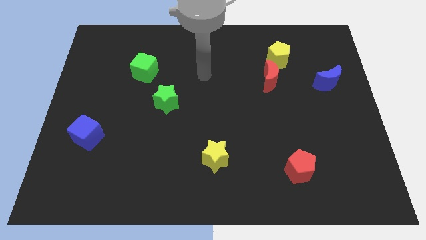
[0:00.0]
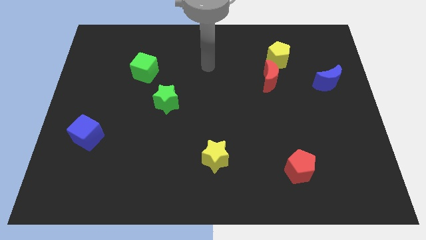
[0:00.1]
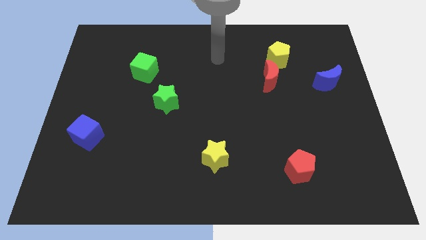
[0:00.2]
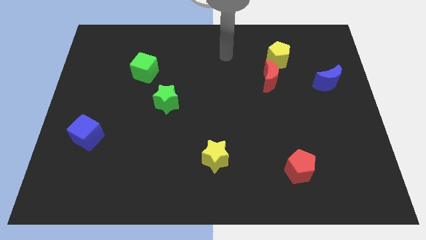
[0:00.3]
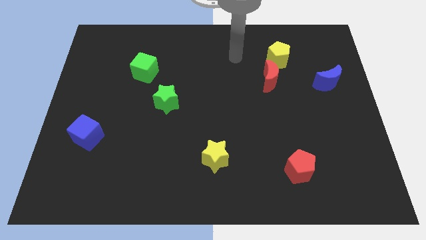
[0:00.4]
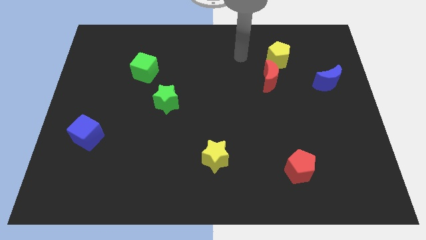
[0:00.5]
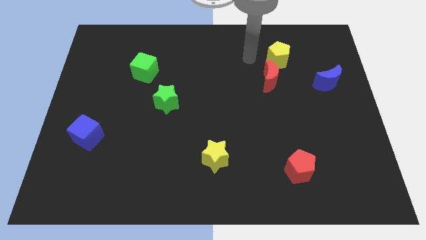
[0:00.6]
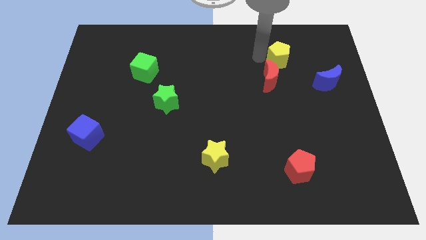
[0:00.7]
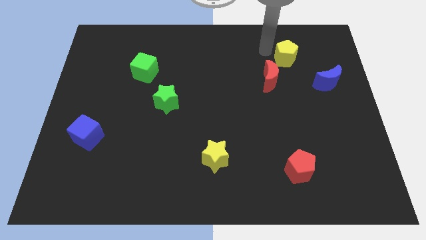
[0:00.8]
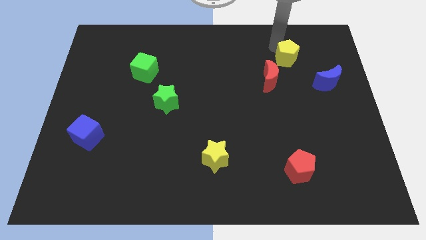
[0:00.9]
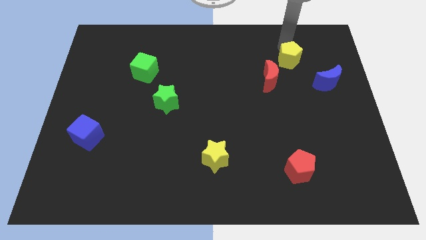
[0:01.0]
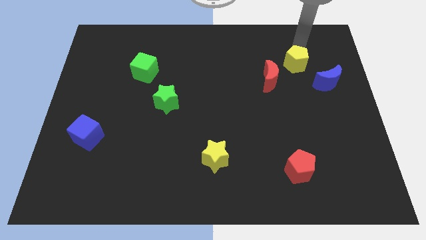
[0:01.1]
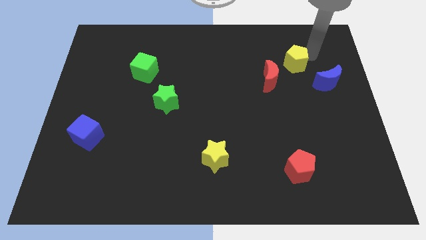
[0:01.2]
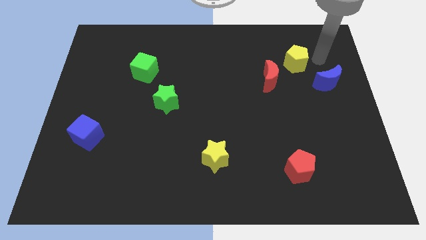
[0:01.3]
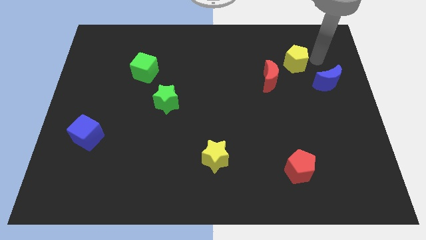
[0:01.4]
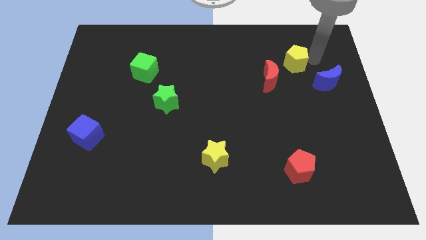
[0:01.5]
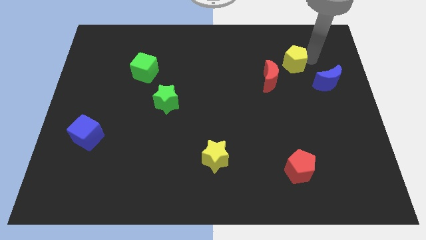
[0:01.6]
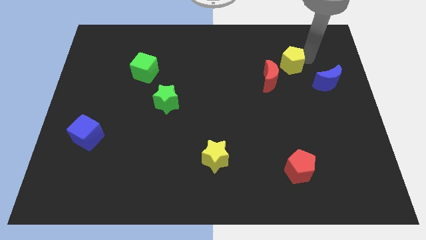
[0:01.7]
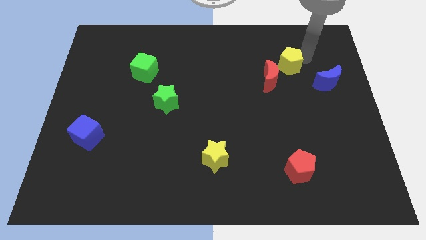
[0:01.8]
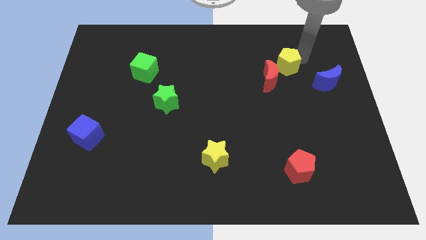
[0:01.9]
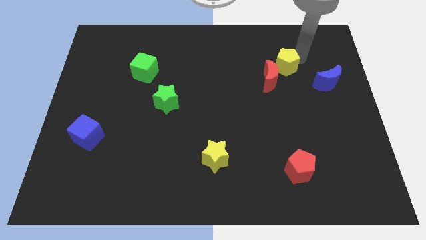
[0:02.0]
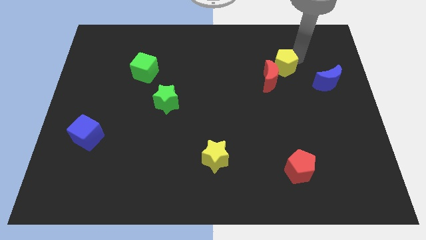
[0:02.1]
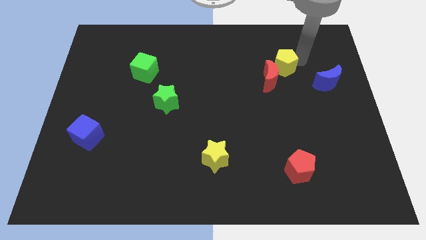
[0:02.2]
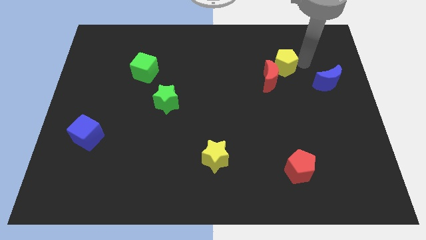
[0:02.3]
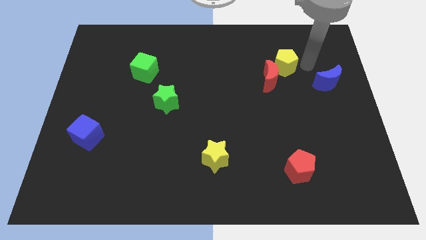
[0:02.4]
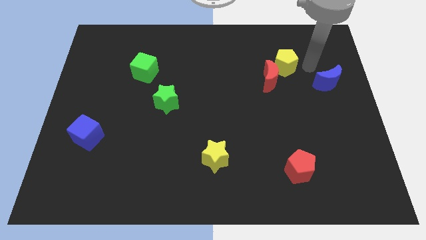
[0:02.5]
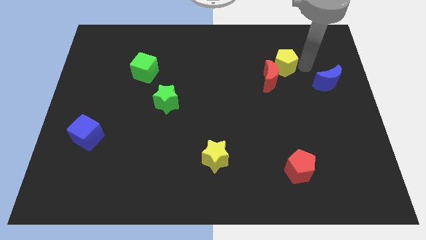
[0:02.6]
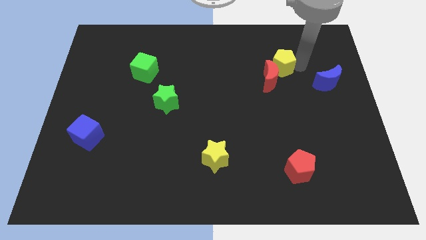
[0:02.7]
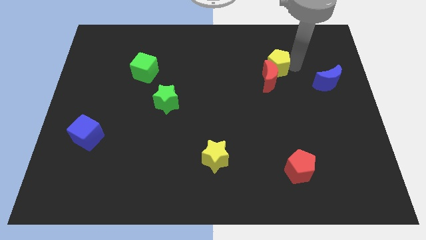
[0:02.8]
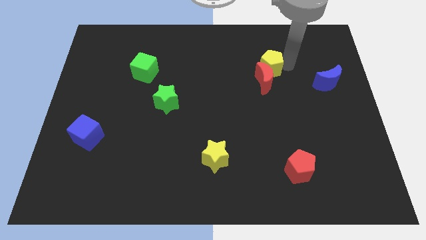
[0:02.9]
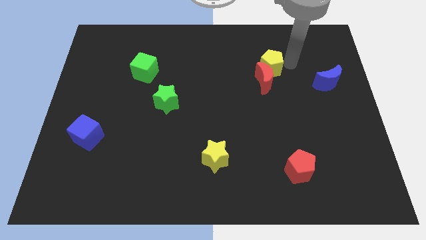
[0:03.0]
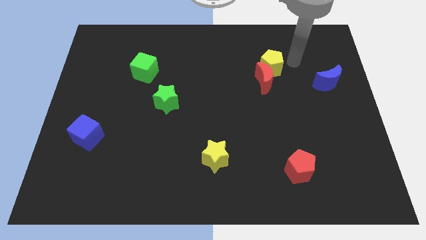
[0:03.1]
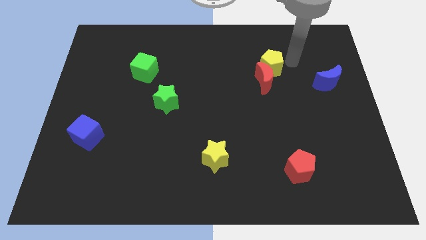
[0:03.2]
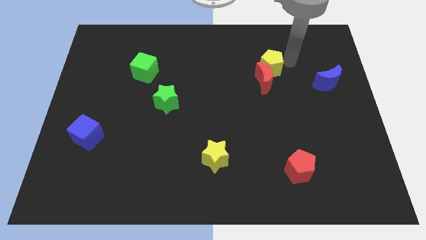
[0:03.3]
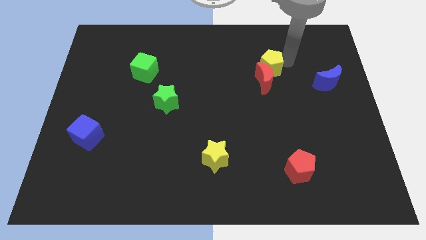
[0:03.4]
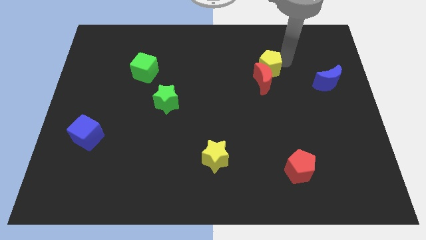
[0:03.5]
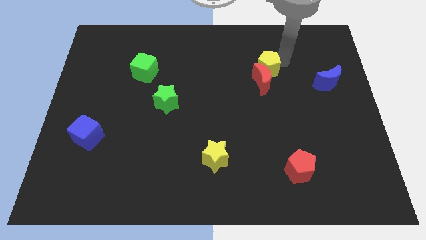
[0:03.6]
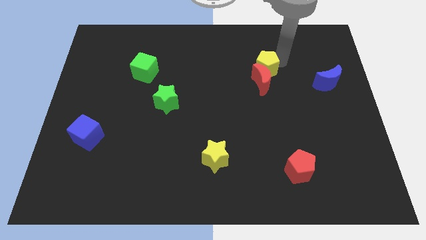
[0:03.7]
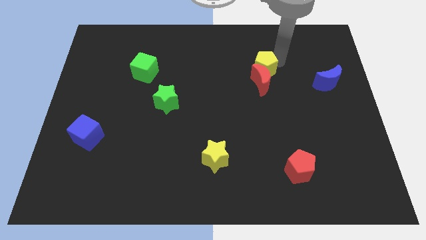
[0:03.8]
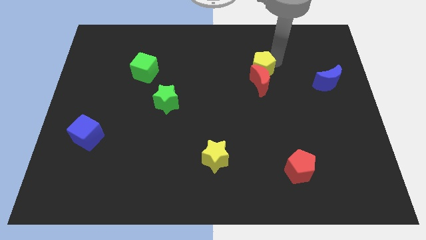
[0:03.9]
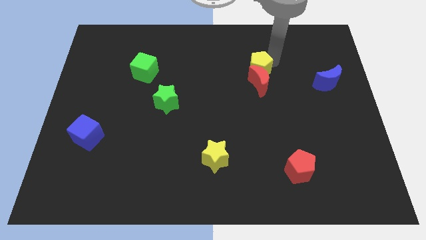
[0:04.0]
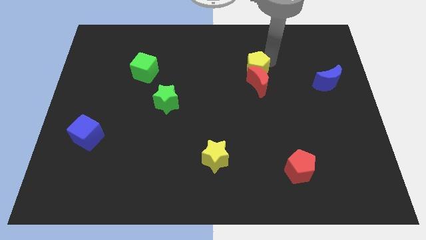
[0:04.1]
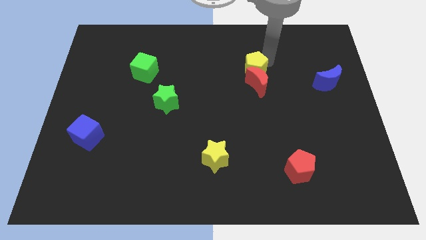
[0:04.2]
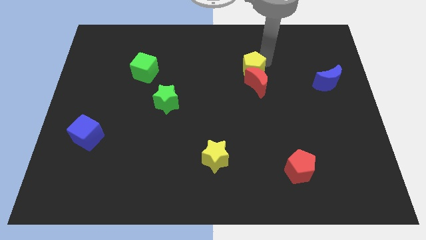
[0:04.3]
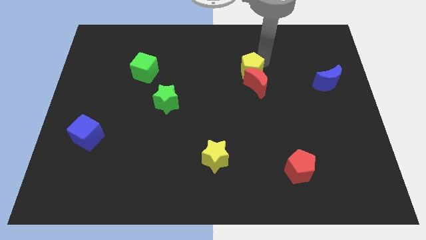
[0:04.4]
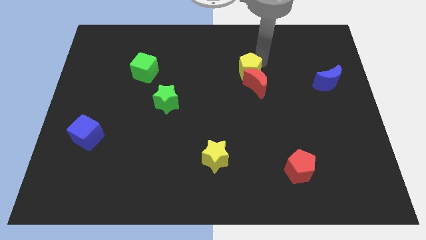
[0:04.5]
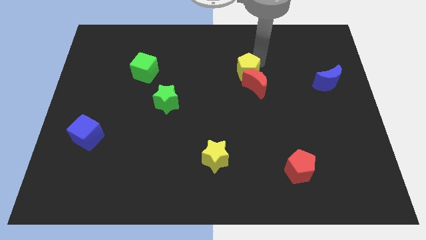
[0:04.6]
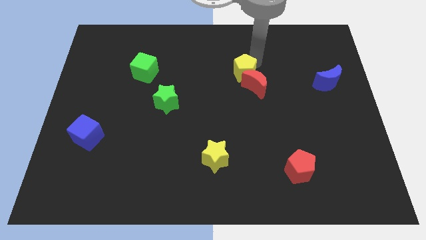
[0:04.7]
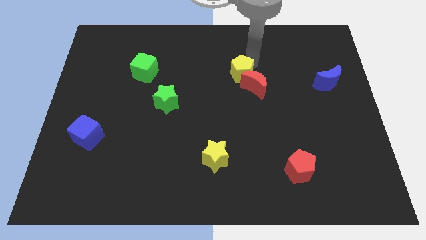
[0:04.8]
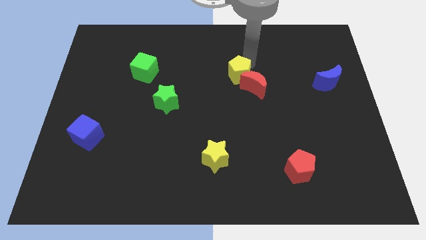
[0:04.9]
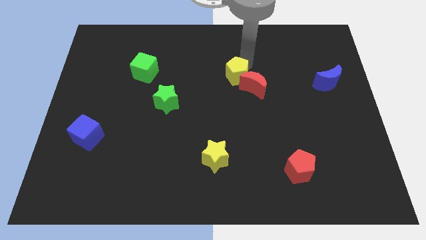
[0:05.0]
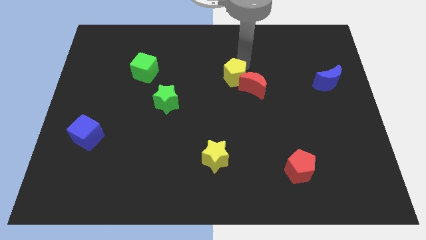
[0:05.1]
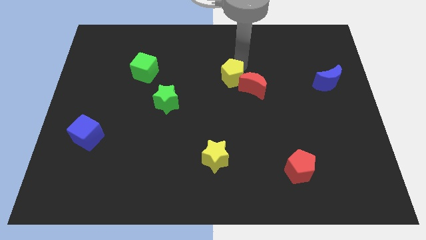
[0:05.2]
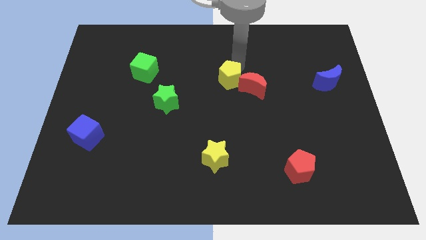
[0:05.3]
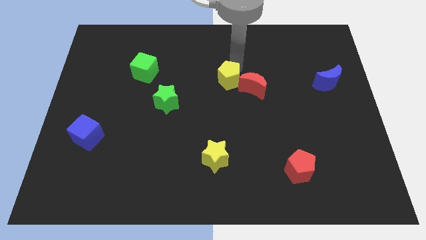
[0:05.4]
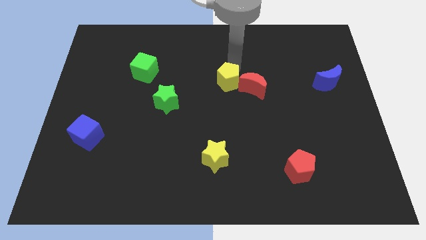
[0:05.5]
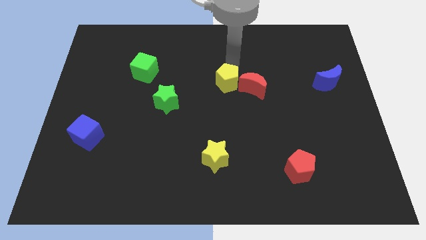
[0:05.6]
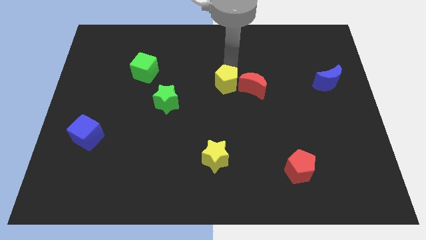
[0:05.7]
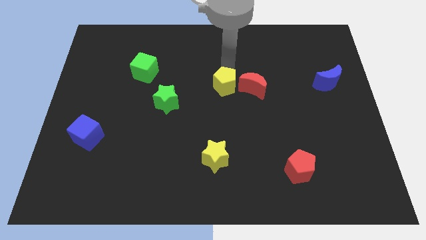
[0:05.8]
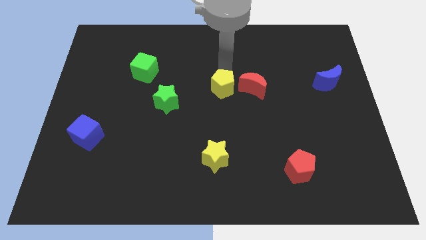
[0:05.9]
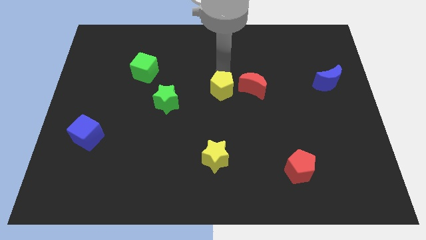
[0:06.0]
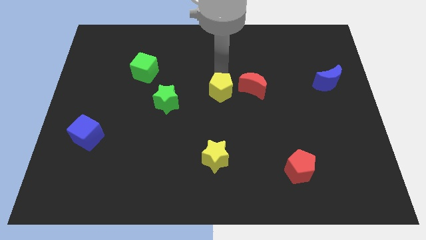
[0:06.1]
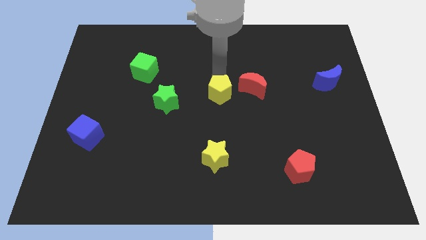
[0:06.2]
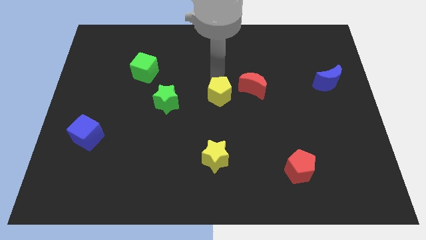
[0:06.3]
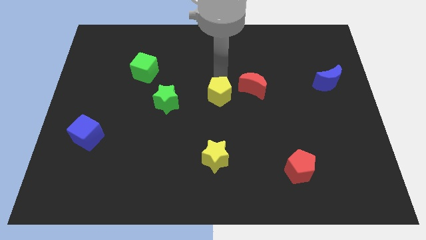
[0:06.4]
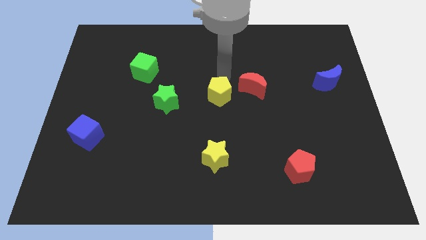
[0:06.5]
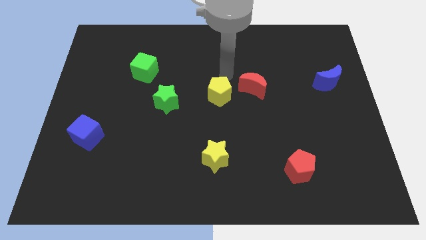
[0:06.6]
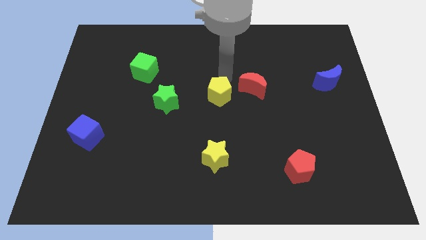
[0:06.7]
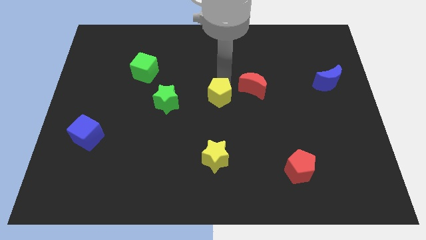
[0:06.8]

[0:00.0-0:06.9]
push the yellow pentagon downwards and left diagonally

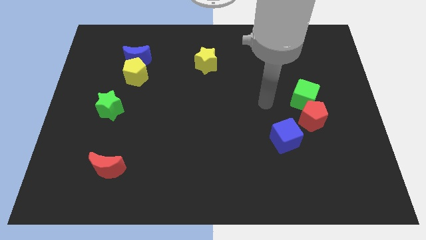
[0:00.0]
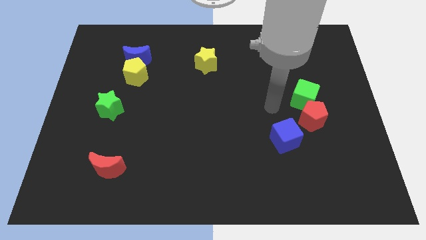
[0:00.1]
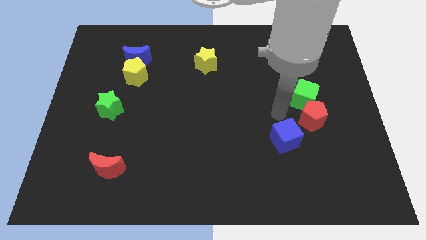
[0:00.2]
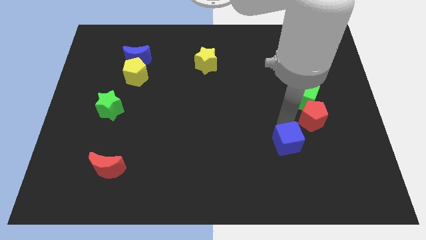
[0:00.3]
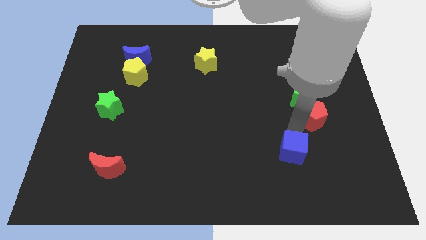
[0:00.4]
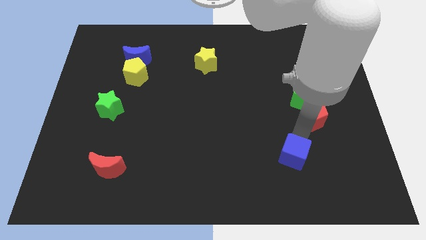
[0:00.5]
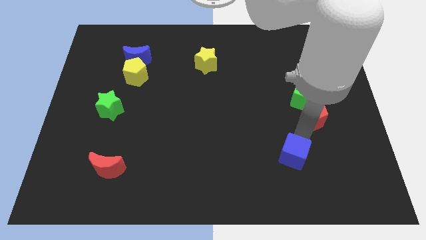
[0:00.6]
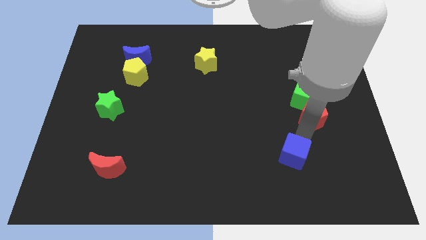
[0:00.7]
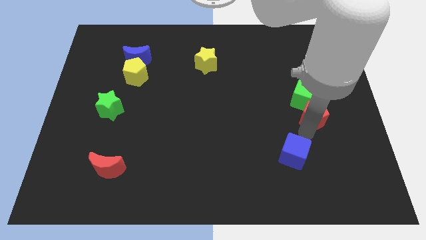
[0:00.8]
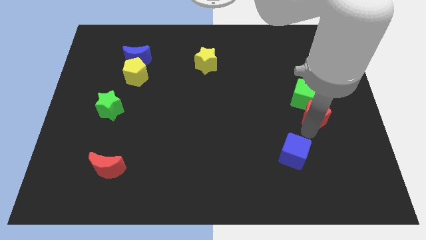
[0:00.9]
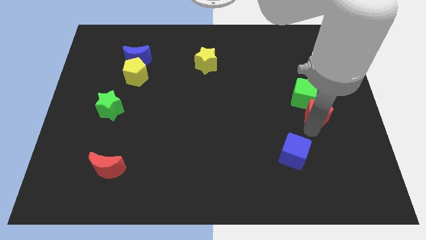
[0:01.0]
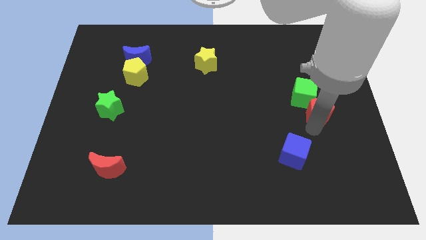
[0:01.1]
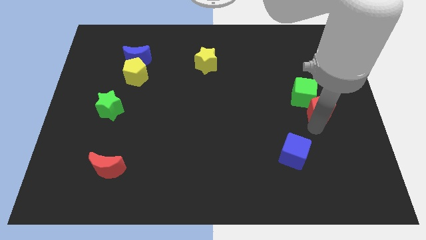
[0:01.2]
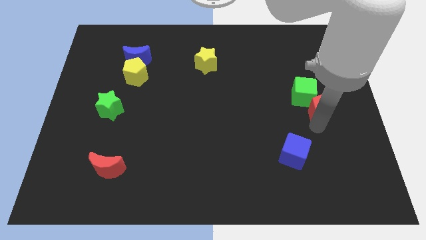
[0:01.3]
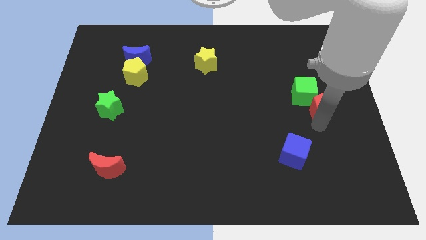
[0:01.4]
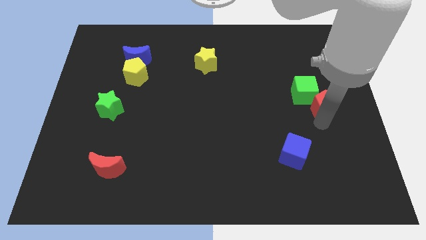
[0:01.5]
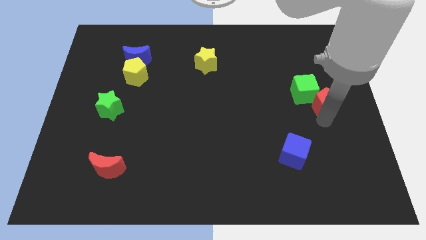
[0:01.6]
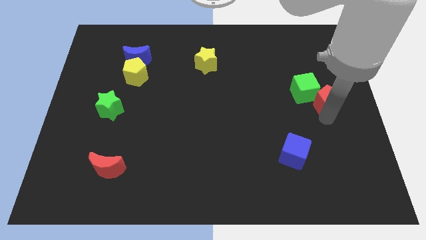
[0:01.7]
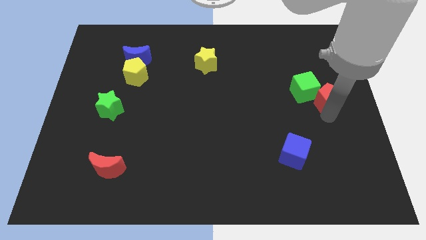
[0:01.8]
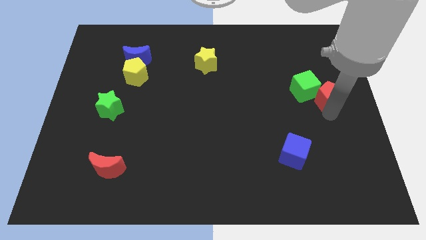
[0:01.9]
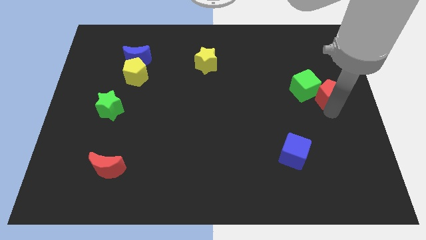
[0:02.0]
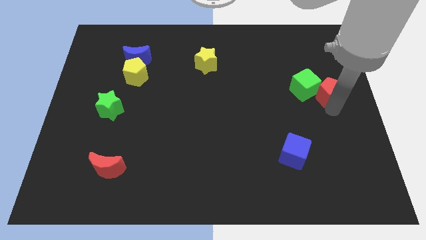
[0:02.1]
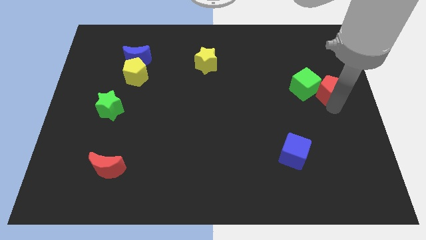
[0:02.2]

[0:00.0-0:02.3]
slide the red pentagon up somewhat
